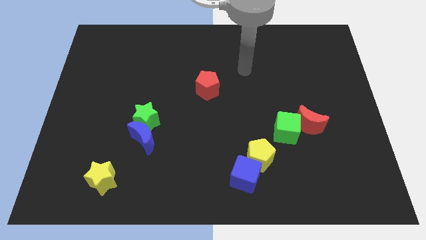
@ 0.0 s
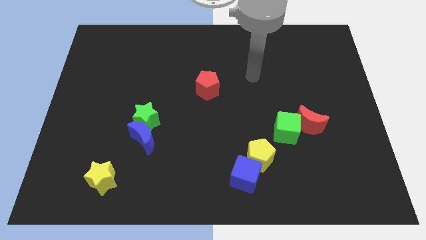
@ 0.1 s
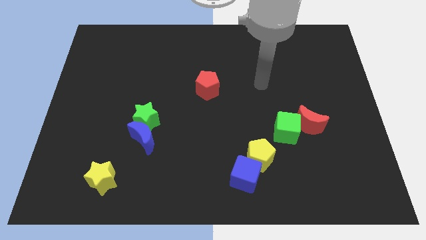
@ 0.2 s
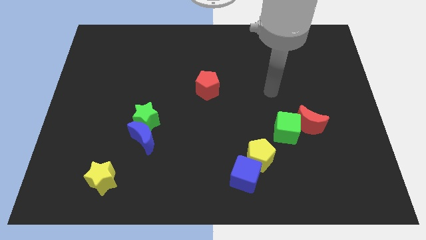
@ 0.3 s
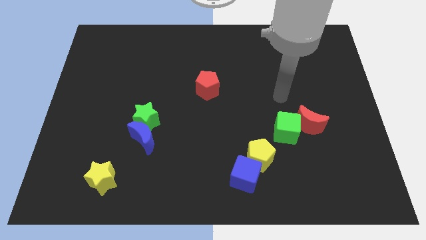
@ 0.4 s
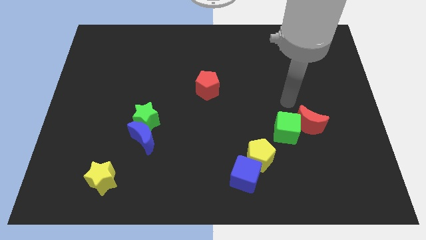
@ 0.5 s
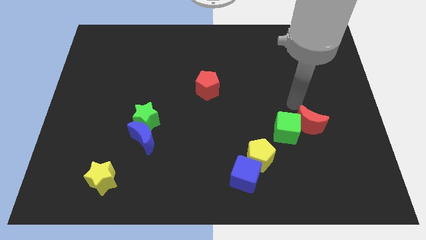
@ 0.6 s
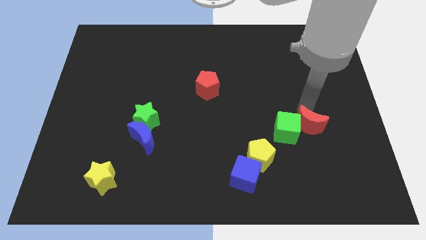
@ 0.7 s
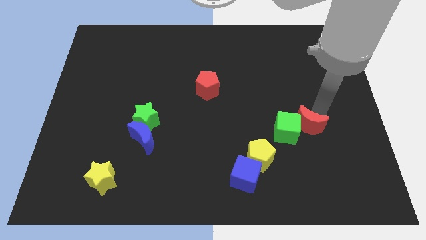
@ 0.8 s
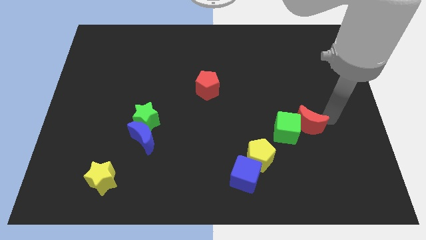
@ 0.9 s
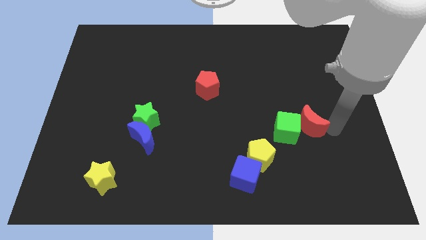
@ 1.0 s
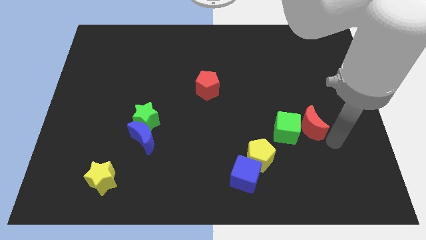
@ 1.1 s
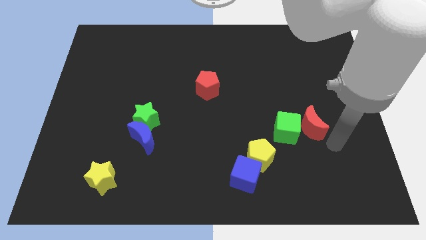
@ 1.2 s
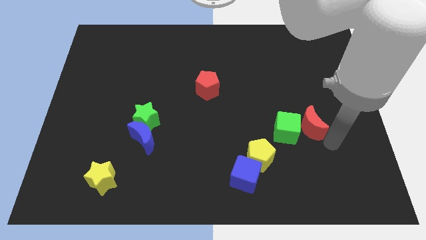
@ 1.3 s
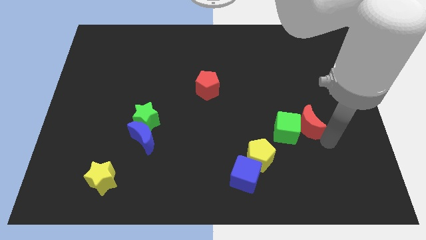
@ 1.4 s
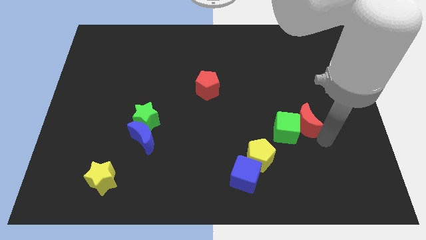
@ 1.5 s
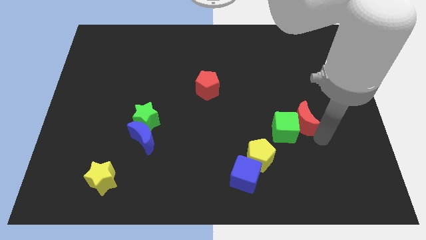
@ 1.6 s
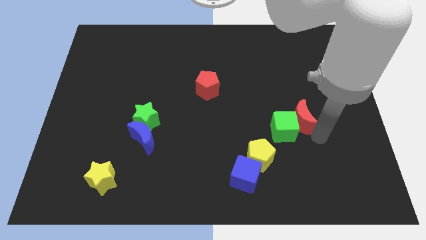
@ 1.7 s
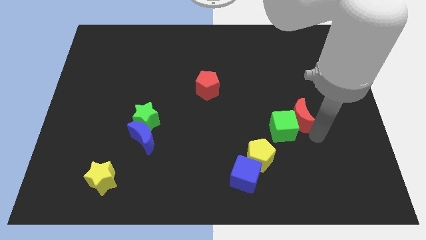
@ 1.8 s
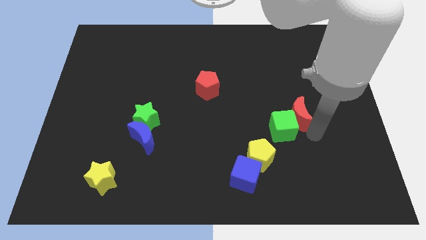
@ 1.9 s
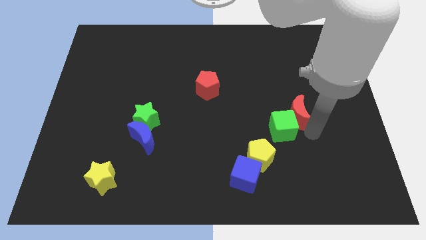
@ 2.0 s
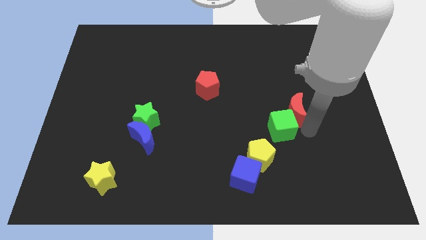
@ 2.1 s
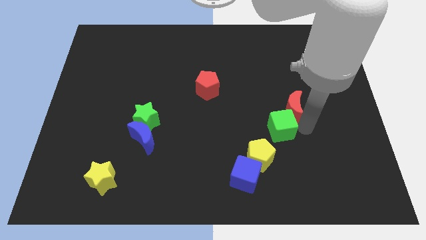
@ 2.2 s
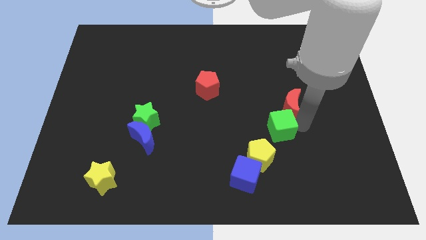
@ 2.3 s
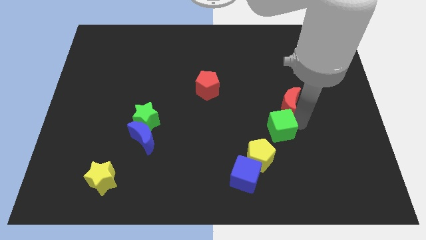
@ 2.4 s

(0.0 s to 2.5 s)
push the red moon upwards and then left somewhat

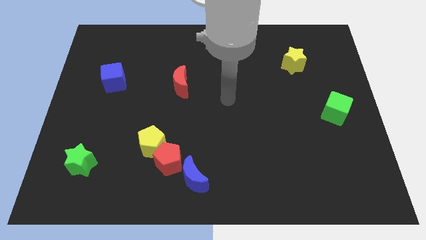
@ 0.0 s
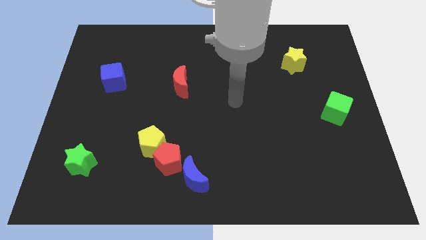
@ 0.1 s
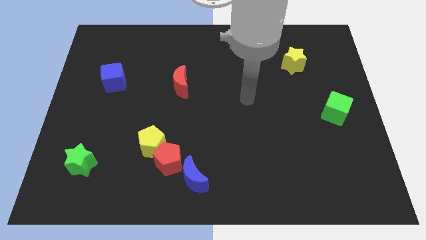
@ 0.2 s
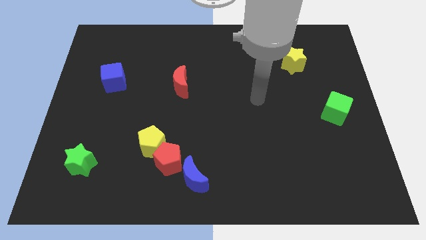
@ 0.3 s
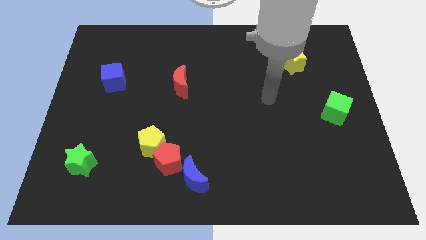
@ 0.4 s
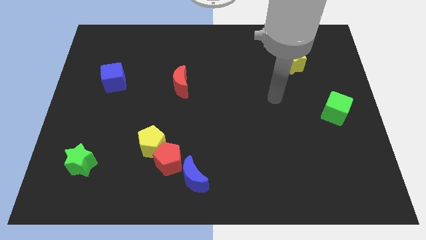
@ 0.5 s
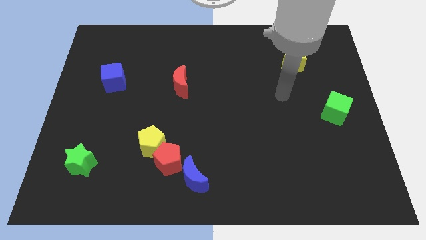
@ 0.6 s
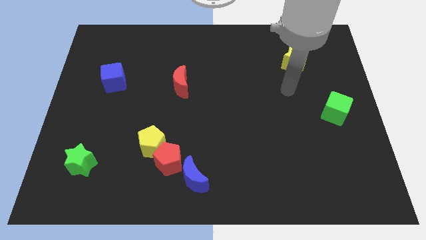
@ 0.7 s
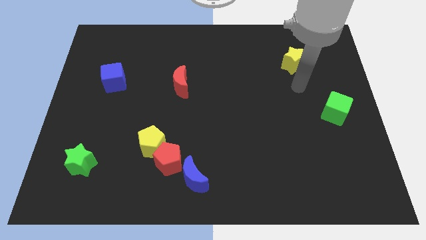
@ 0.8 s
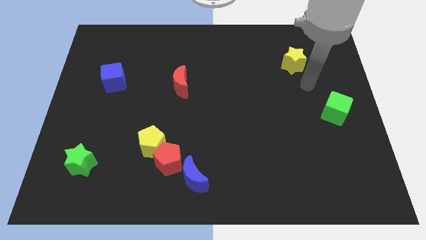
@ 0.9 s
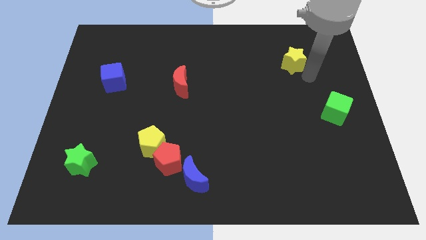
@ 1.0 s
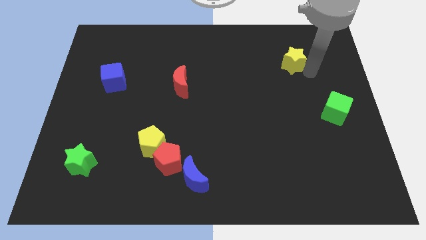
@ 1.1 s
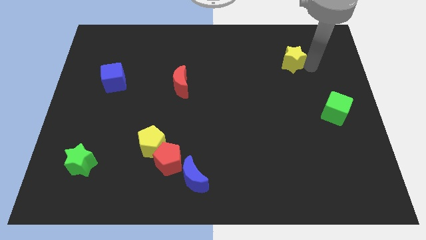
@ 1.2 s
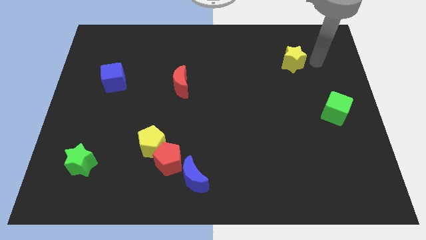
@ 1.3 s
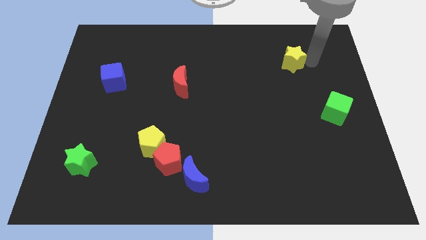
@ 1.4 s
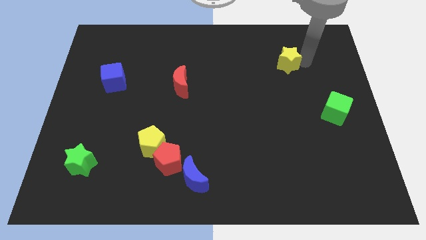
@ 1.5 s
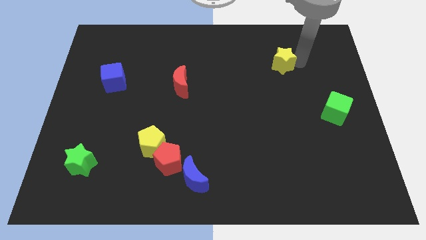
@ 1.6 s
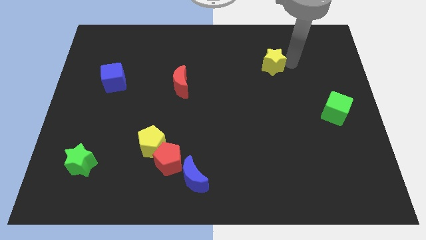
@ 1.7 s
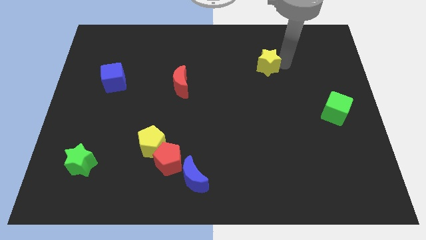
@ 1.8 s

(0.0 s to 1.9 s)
move the yellow star a little bit left

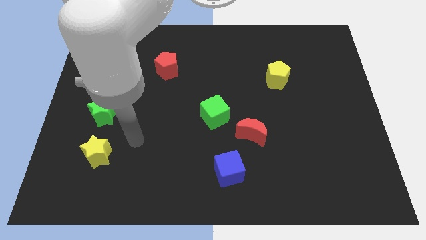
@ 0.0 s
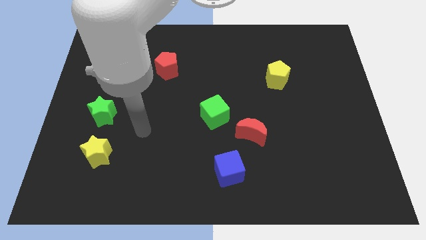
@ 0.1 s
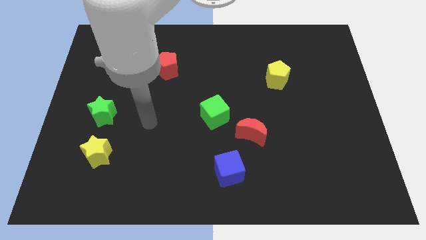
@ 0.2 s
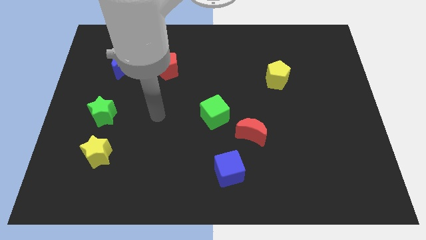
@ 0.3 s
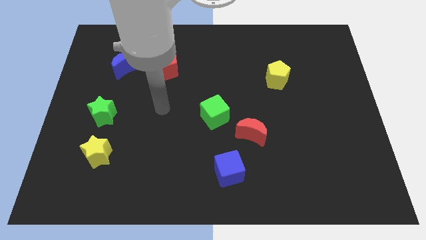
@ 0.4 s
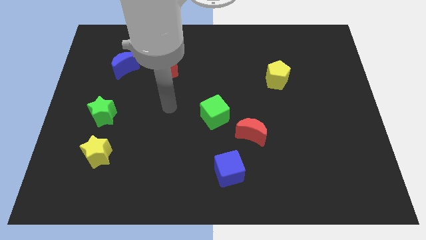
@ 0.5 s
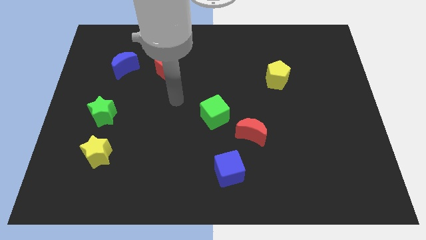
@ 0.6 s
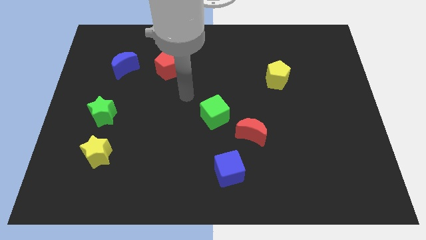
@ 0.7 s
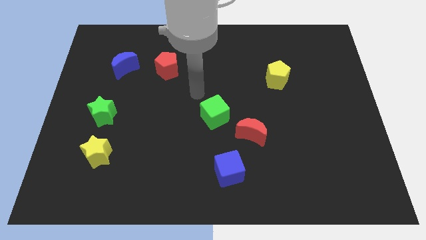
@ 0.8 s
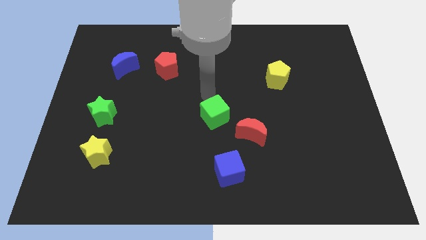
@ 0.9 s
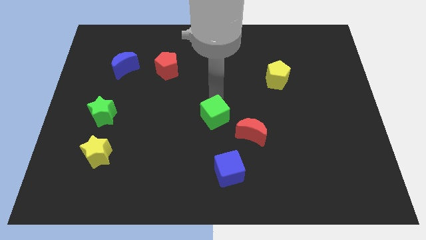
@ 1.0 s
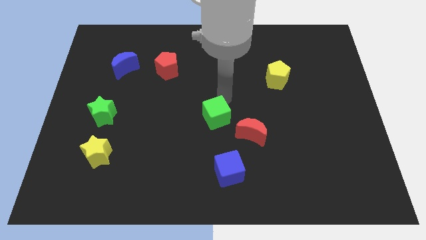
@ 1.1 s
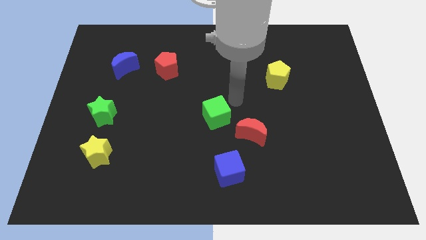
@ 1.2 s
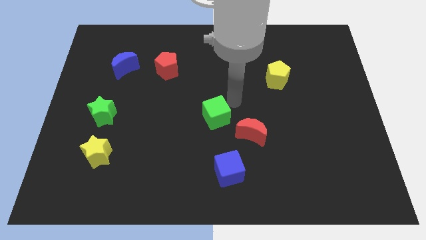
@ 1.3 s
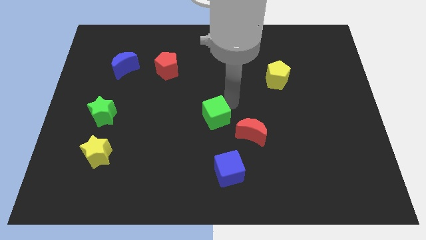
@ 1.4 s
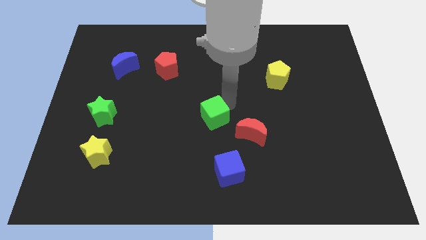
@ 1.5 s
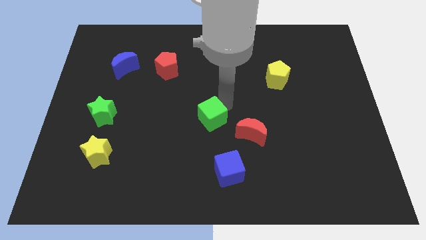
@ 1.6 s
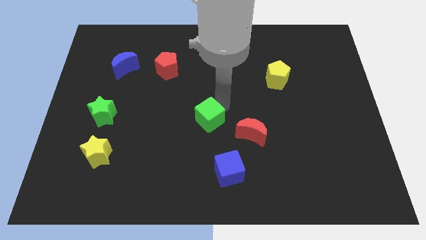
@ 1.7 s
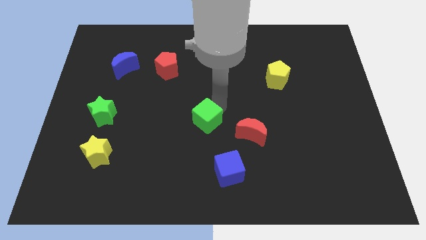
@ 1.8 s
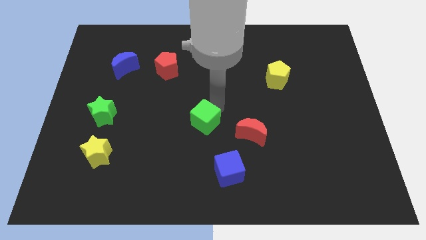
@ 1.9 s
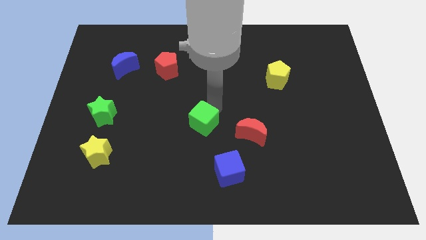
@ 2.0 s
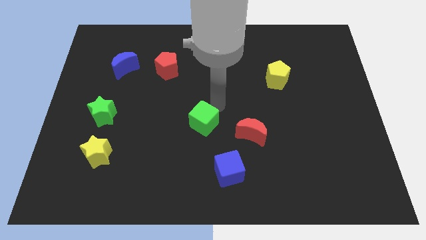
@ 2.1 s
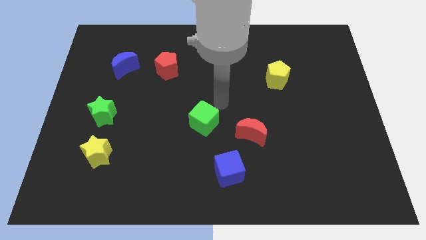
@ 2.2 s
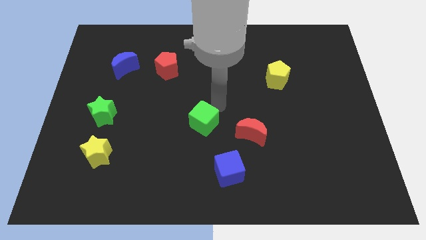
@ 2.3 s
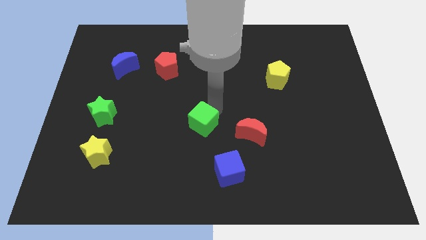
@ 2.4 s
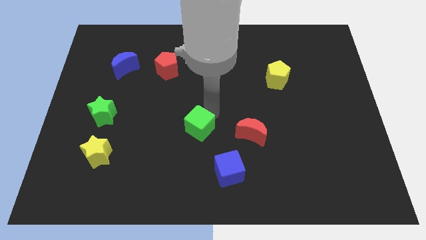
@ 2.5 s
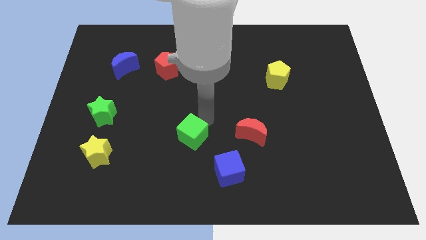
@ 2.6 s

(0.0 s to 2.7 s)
slightly move the green cube down and then to the left

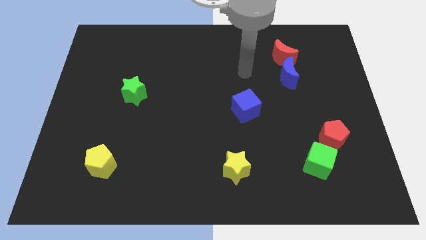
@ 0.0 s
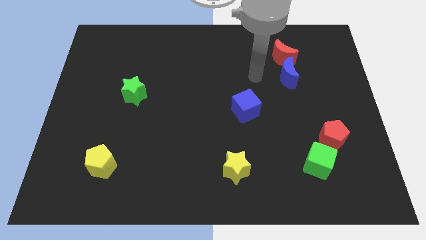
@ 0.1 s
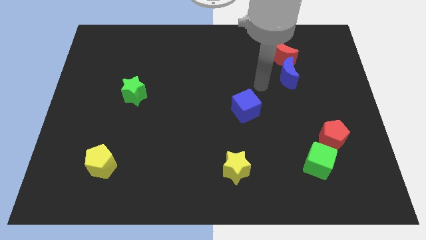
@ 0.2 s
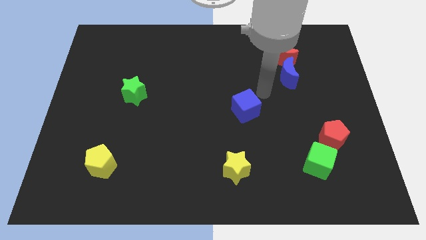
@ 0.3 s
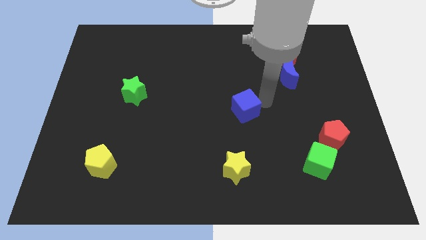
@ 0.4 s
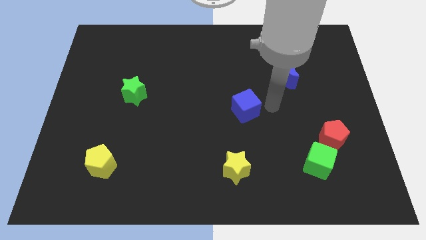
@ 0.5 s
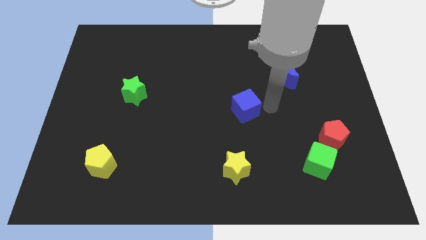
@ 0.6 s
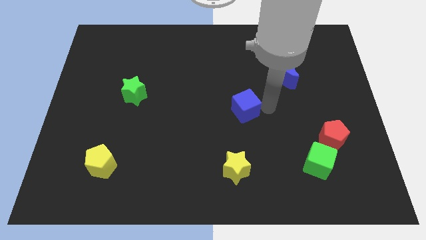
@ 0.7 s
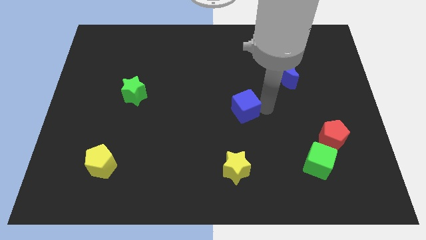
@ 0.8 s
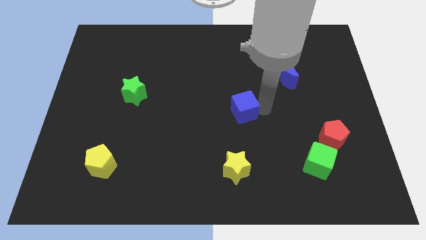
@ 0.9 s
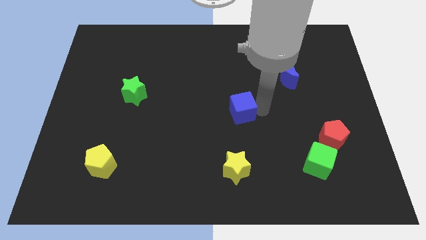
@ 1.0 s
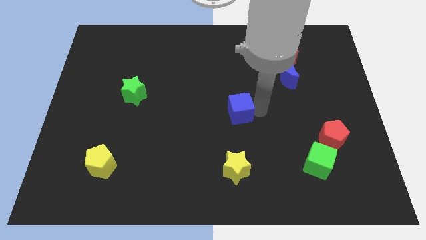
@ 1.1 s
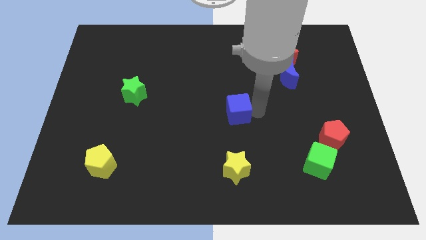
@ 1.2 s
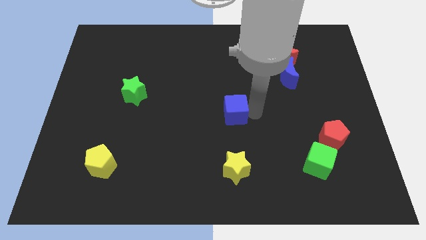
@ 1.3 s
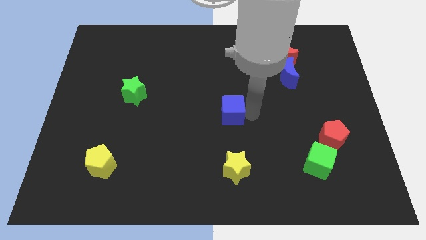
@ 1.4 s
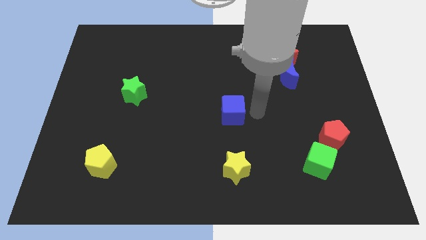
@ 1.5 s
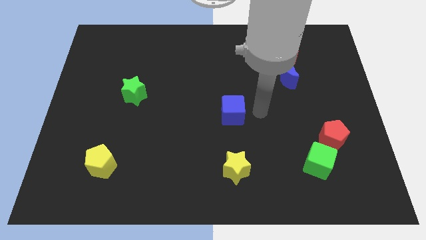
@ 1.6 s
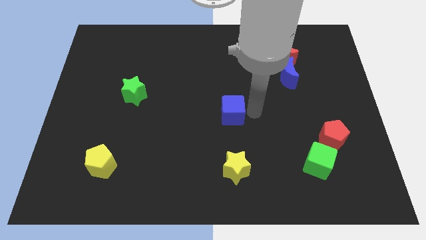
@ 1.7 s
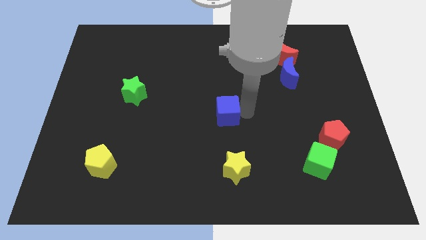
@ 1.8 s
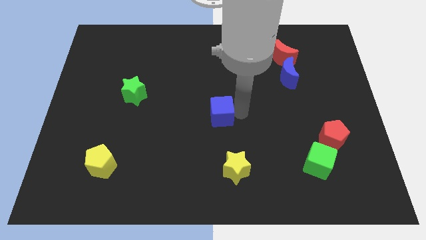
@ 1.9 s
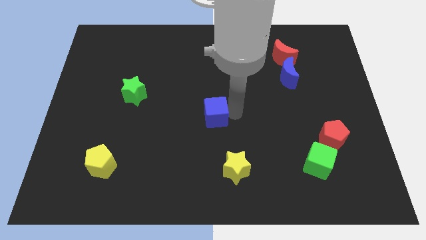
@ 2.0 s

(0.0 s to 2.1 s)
move the blue cube left slightly
